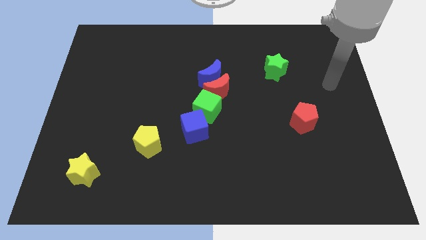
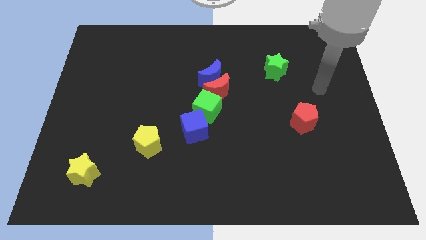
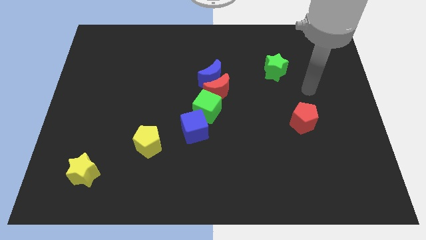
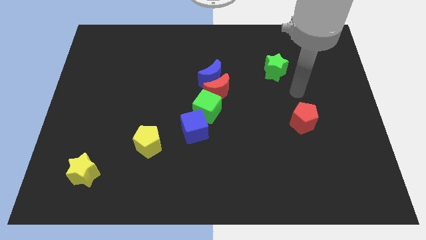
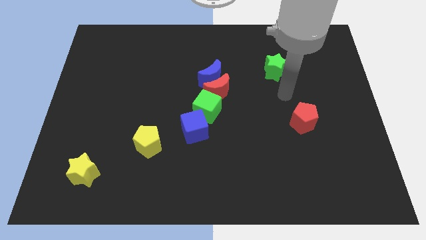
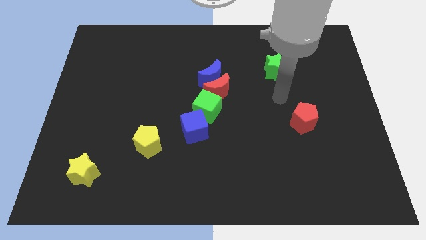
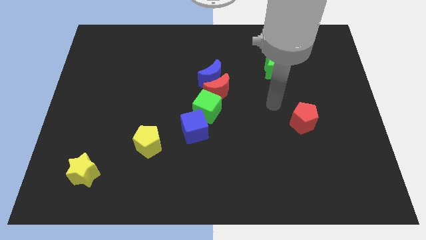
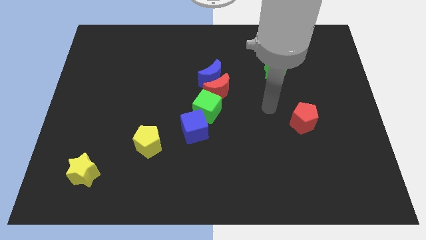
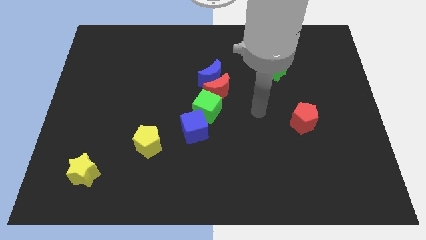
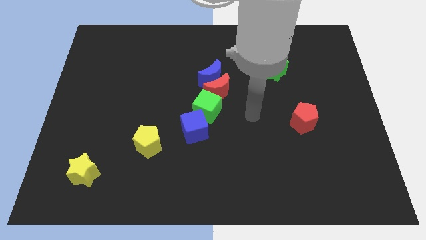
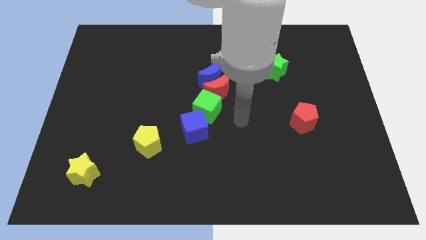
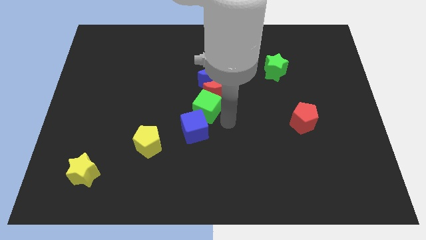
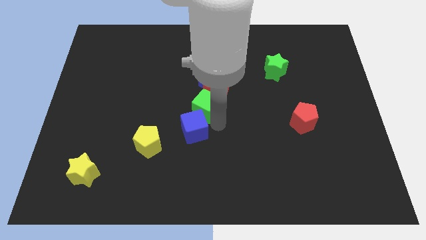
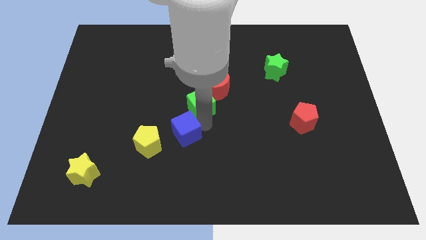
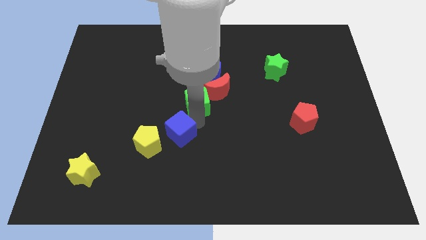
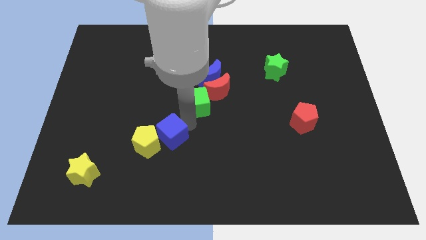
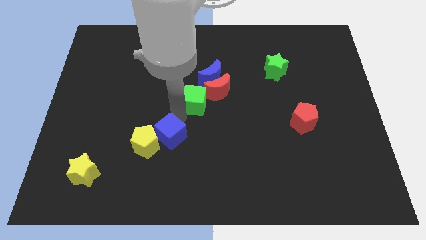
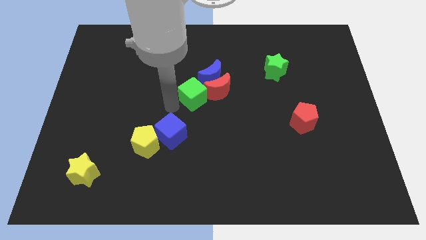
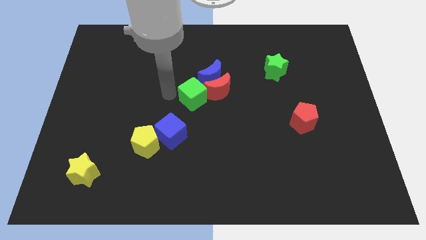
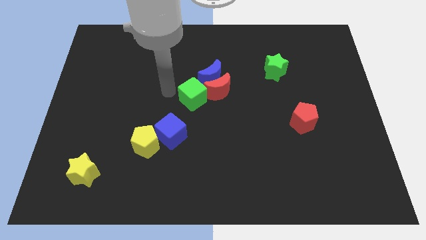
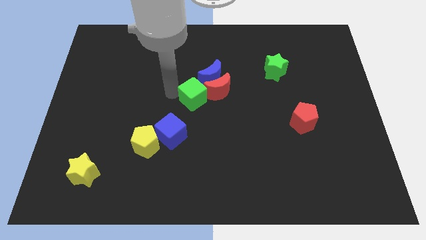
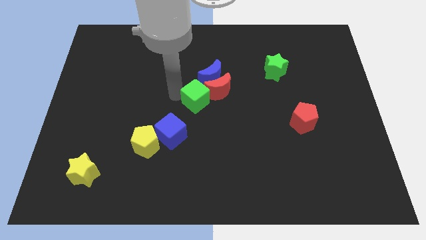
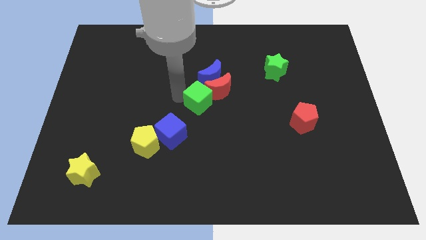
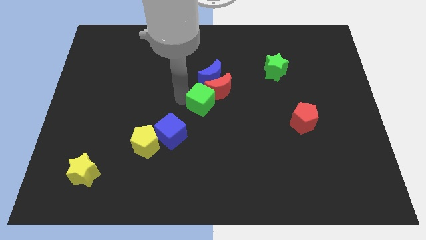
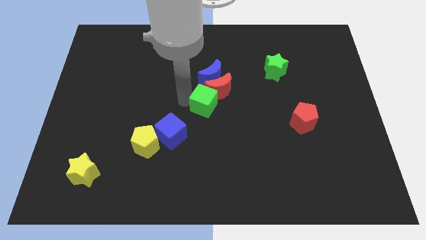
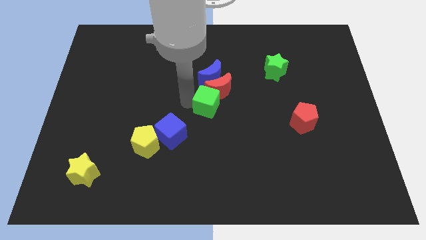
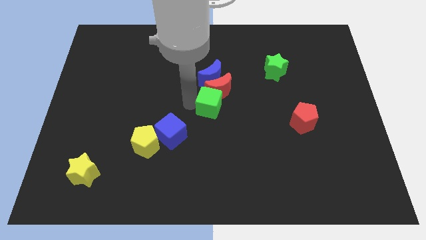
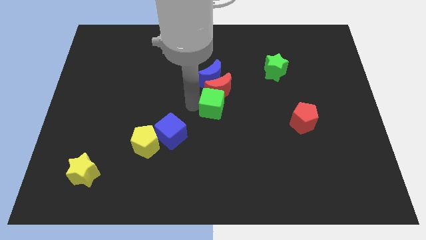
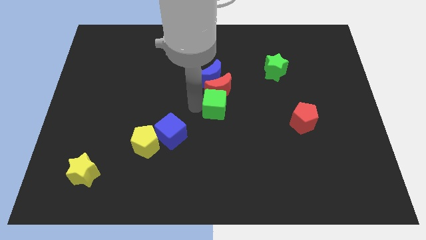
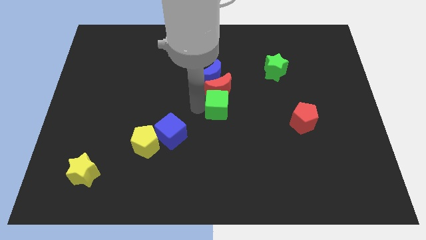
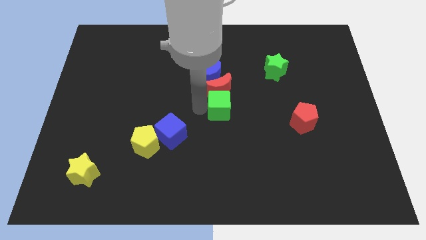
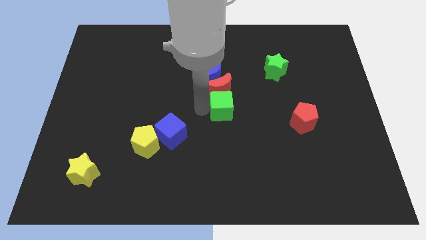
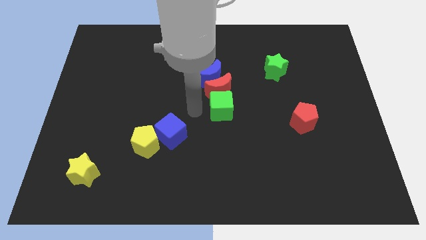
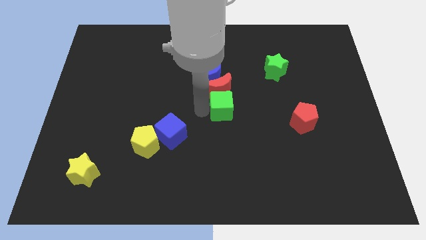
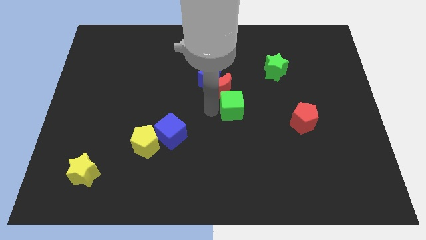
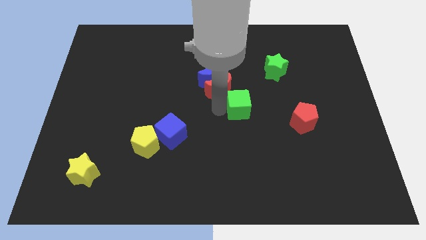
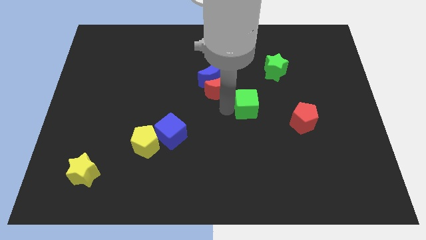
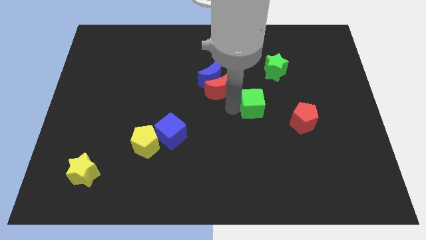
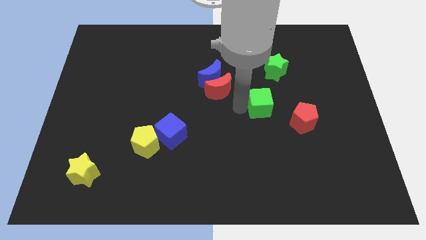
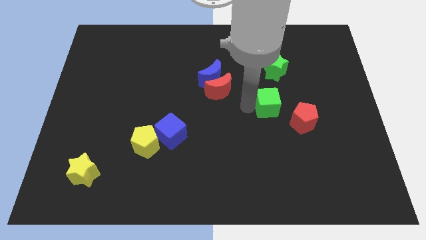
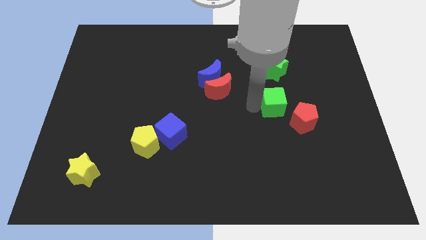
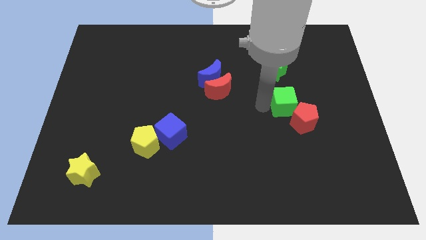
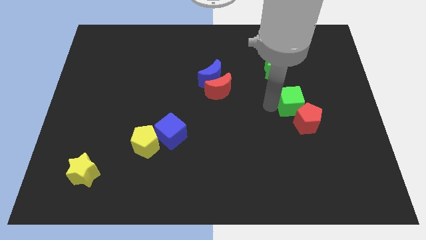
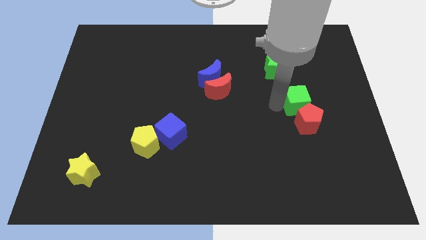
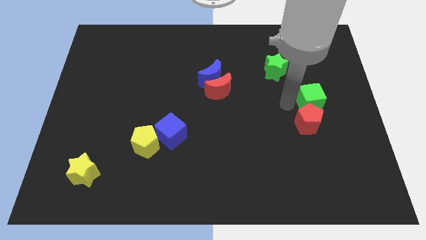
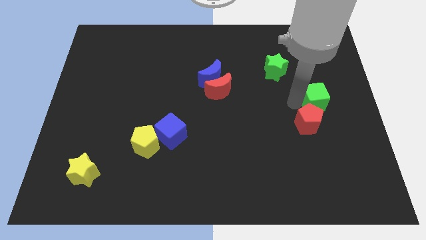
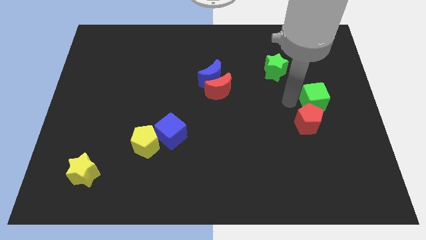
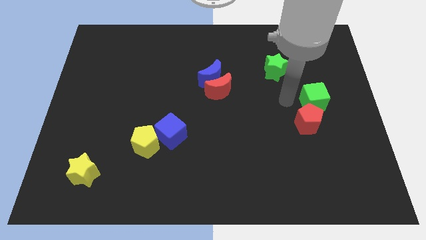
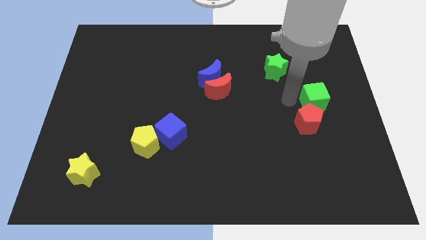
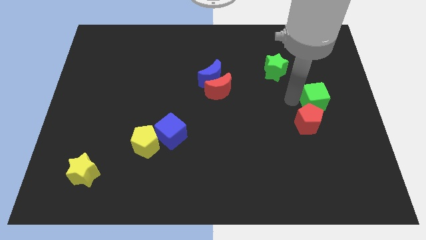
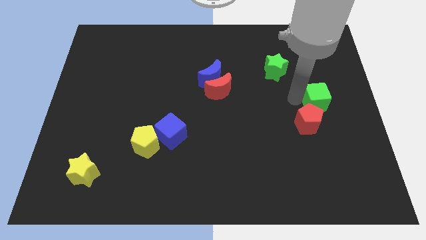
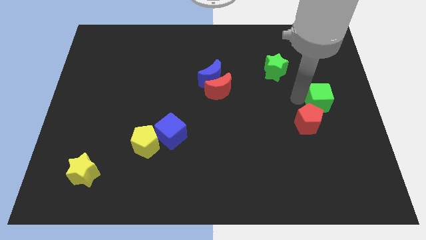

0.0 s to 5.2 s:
move the green cube to the right side of the board

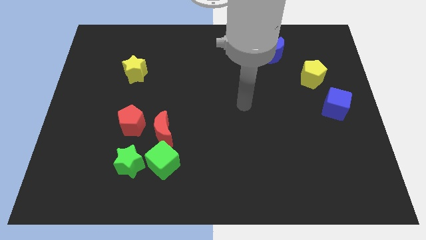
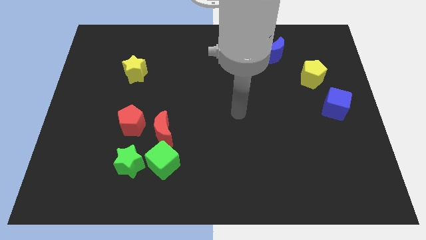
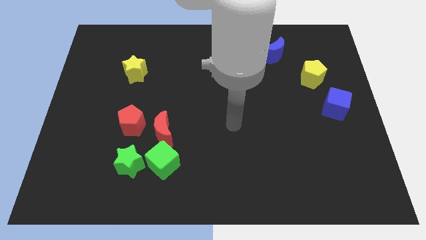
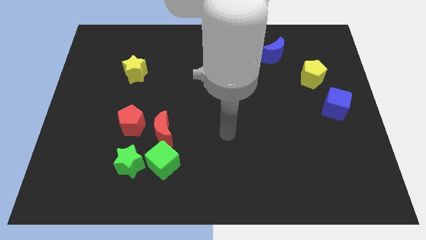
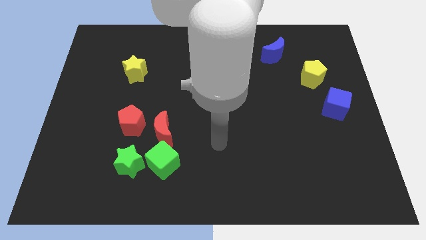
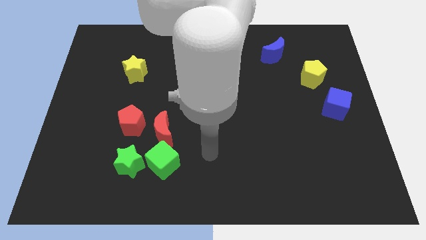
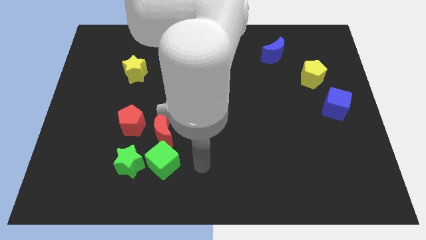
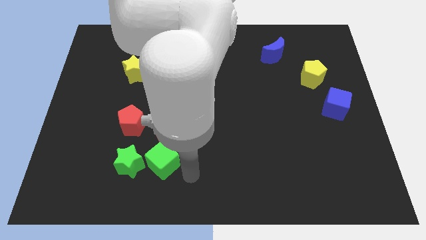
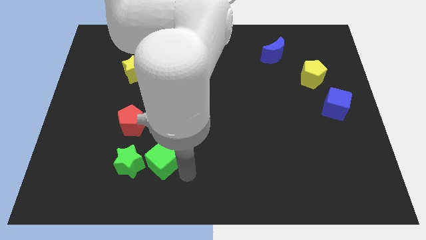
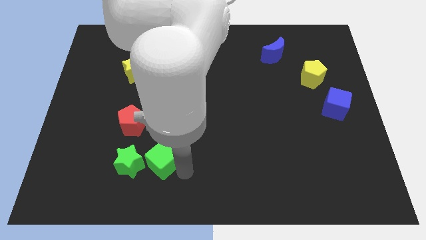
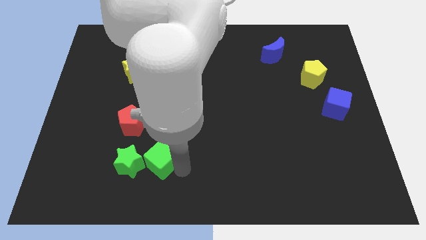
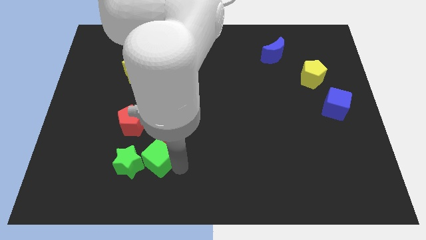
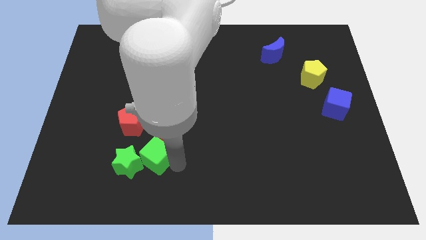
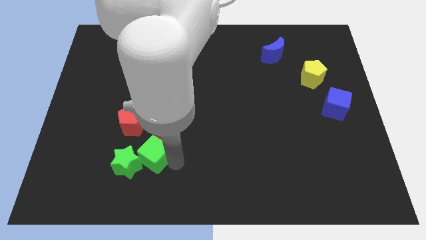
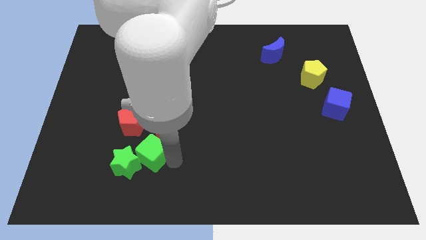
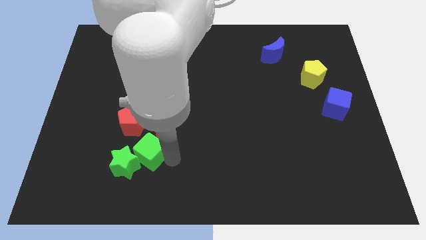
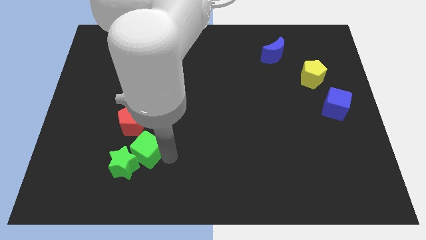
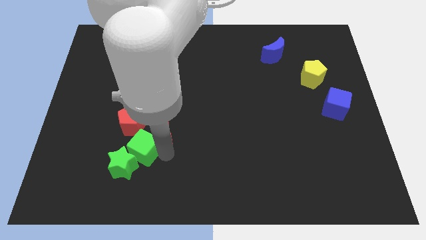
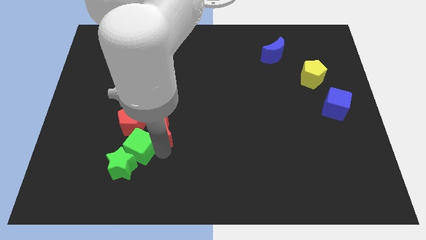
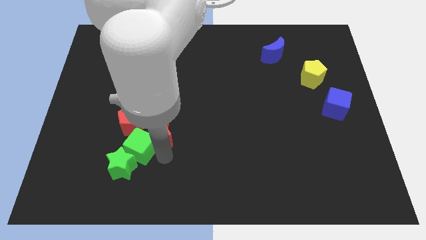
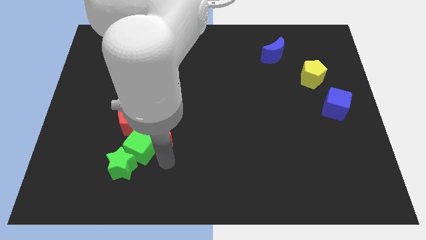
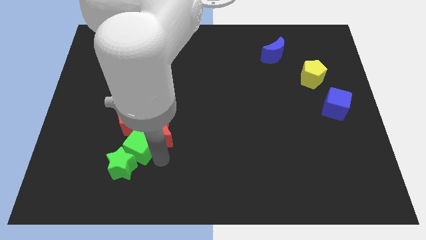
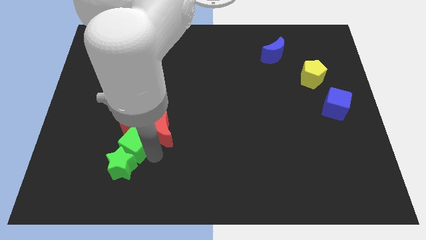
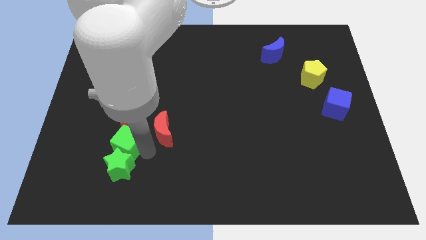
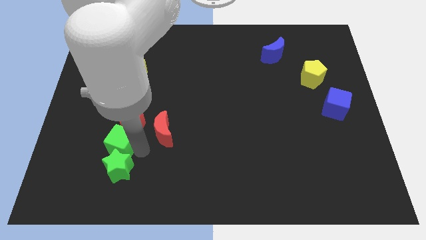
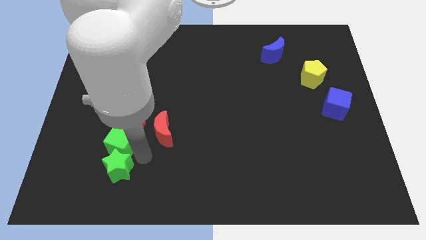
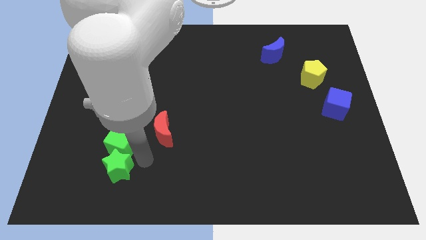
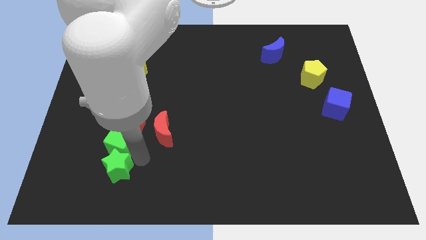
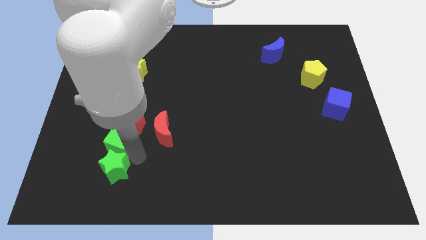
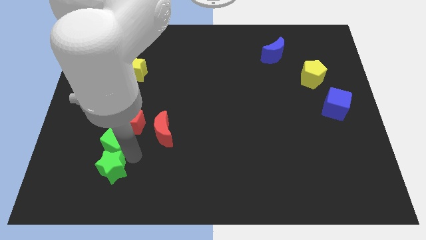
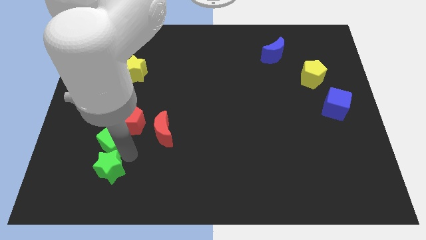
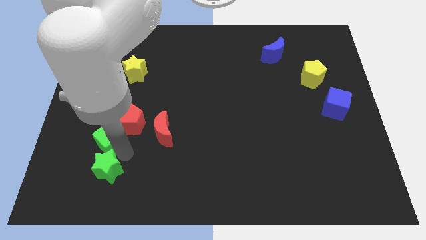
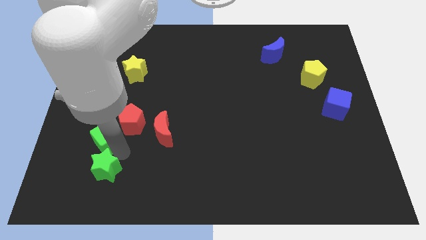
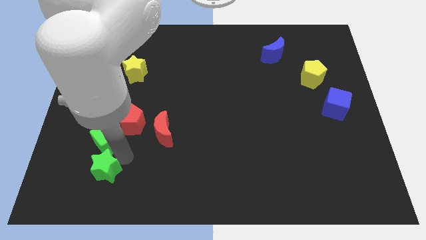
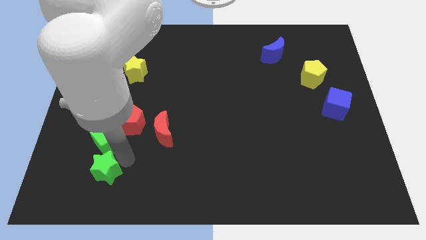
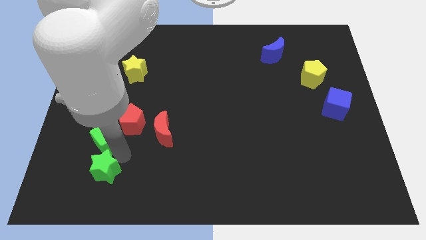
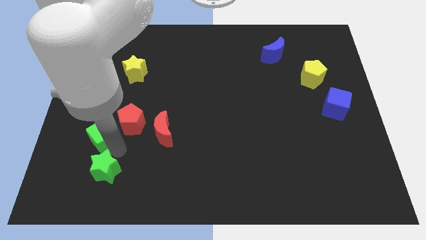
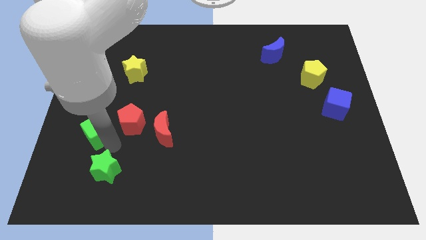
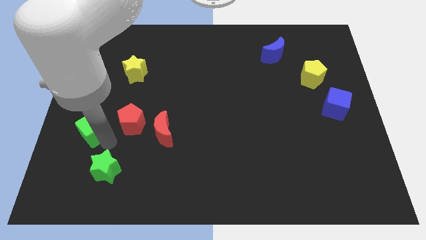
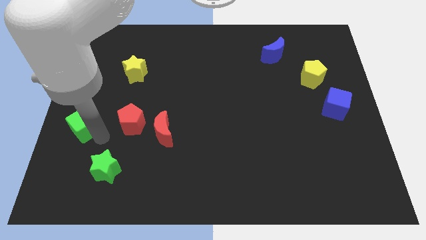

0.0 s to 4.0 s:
push the green cube to the left side
